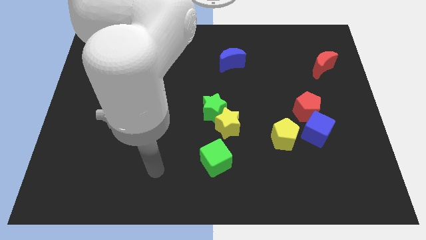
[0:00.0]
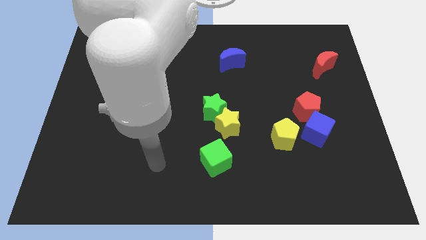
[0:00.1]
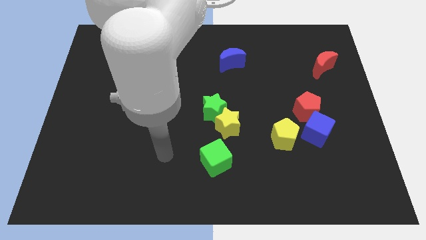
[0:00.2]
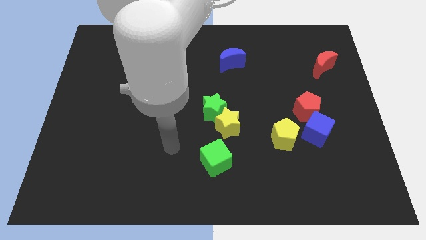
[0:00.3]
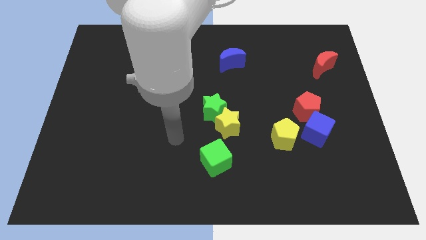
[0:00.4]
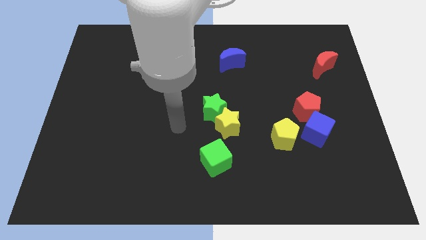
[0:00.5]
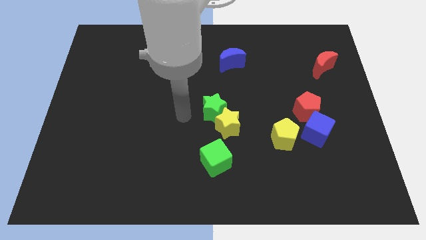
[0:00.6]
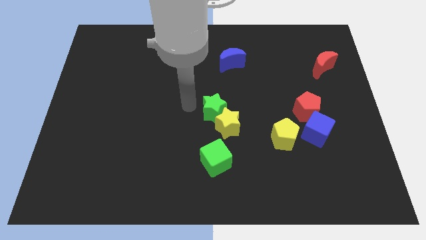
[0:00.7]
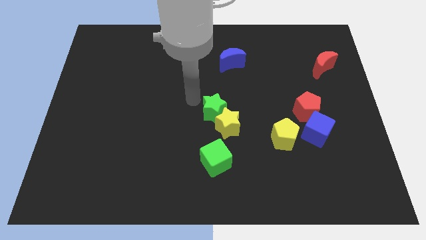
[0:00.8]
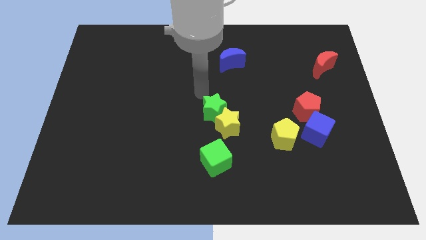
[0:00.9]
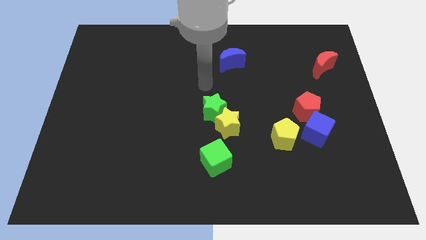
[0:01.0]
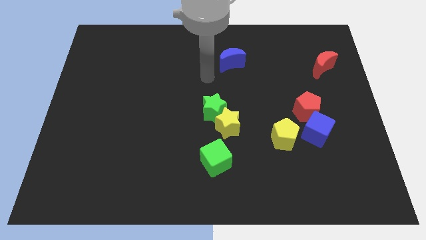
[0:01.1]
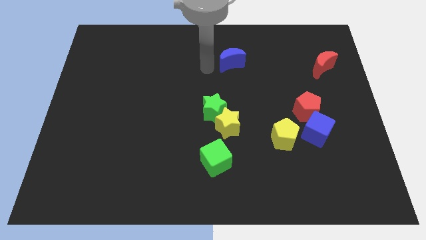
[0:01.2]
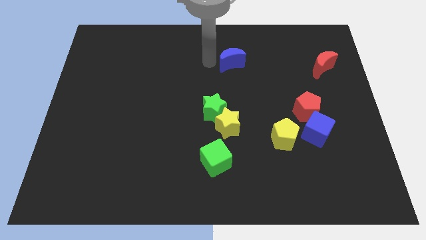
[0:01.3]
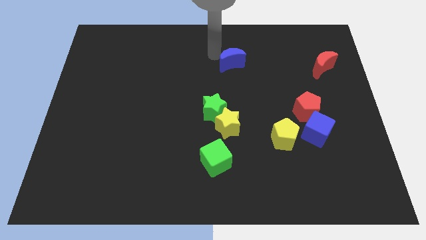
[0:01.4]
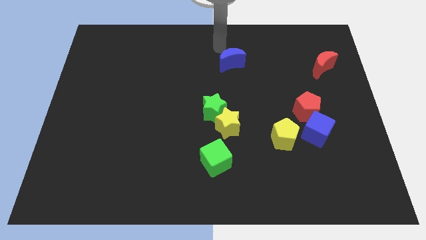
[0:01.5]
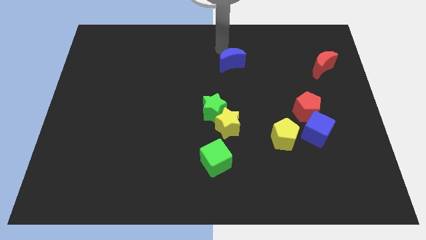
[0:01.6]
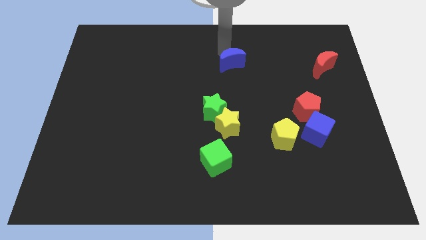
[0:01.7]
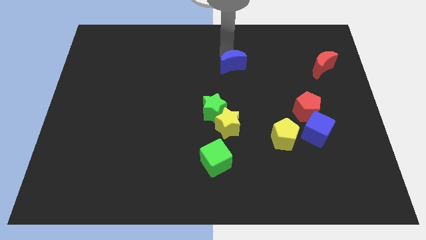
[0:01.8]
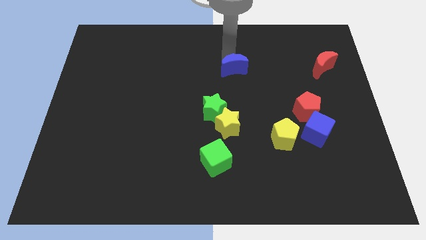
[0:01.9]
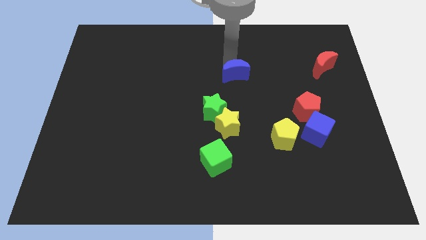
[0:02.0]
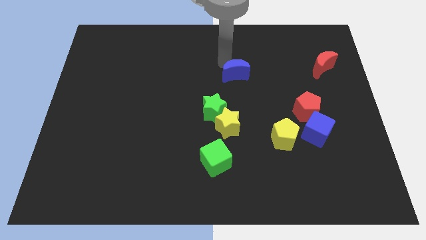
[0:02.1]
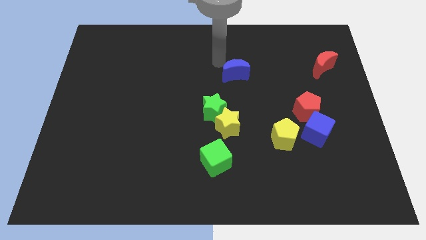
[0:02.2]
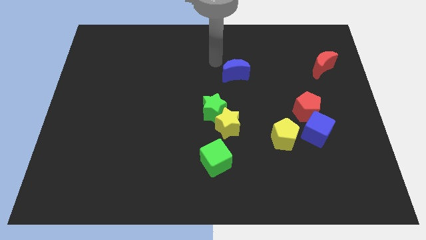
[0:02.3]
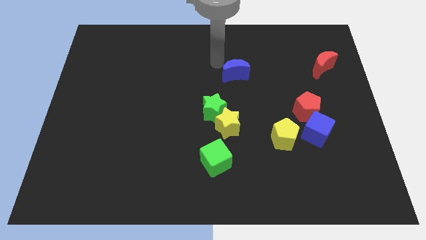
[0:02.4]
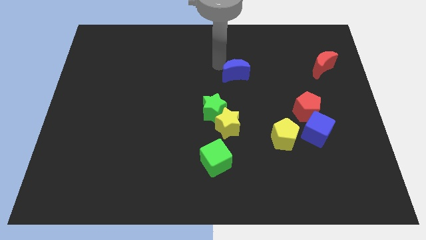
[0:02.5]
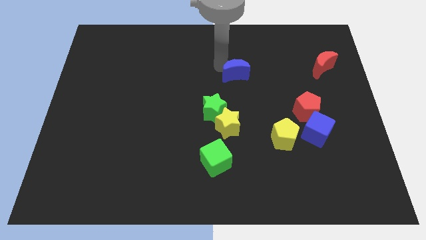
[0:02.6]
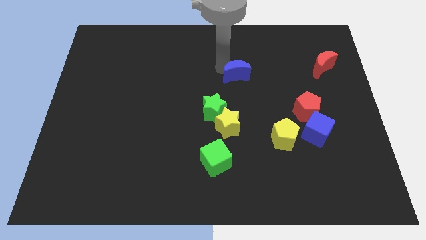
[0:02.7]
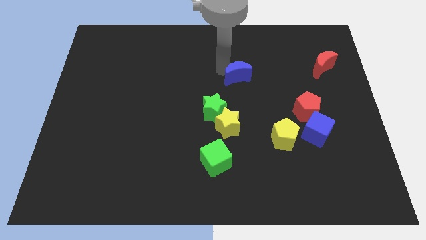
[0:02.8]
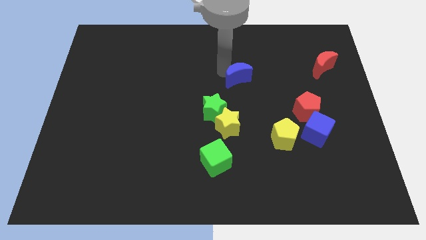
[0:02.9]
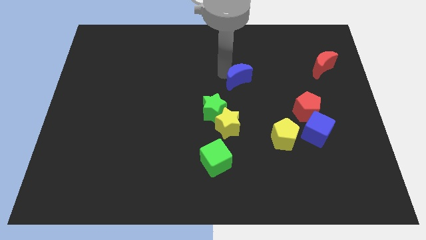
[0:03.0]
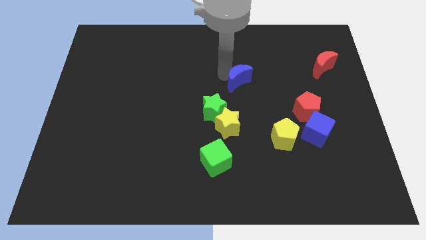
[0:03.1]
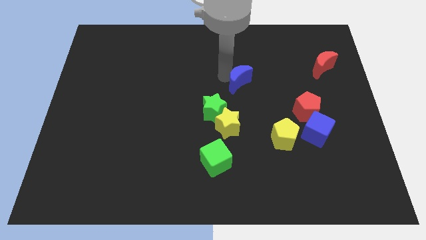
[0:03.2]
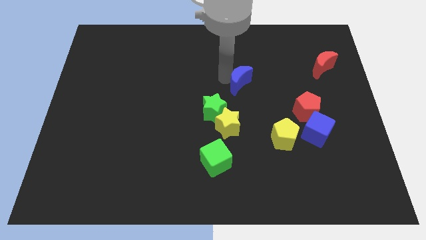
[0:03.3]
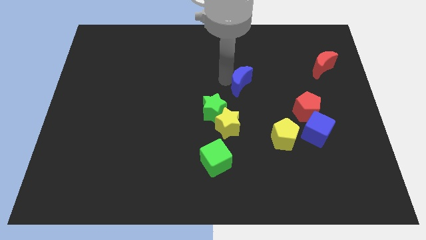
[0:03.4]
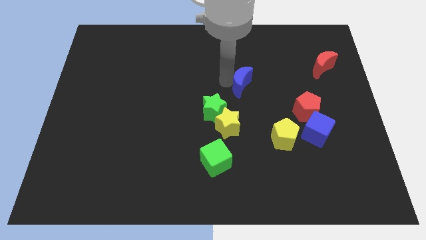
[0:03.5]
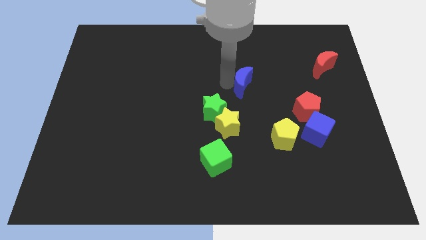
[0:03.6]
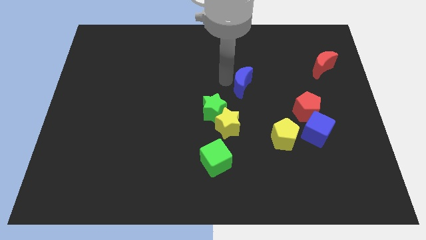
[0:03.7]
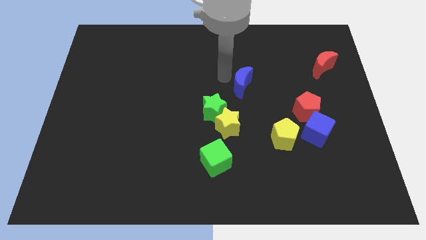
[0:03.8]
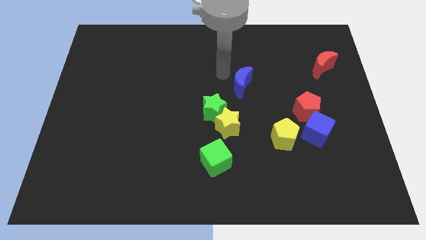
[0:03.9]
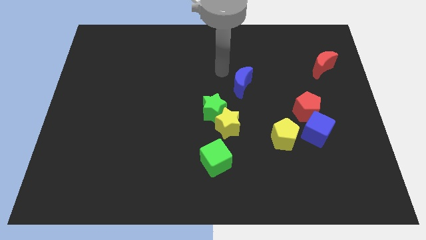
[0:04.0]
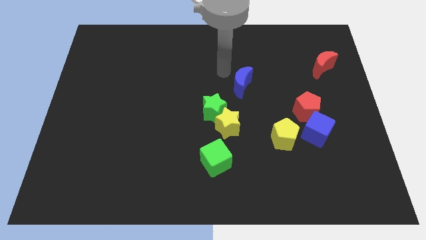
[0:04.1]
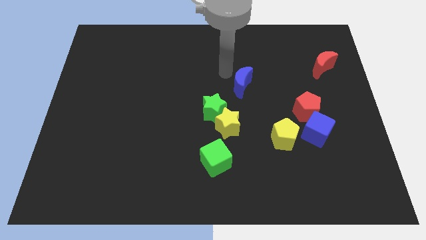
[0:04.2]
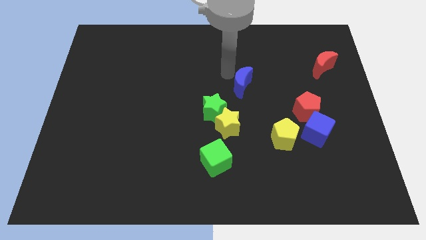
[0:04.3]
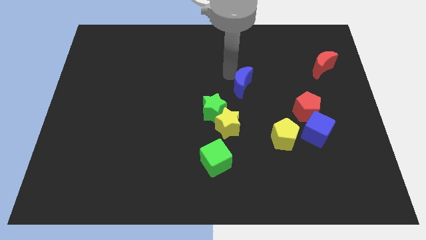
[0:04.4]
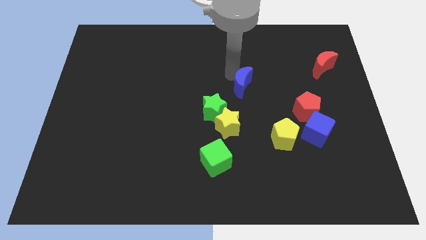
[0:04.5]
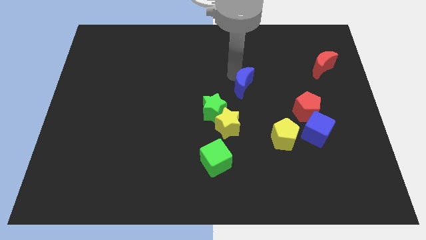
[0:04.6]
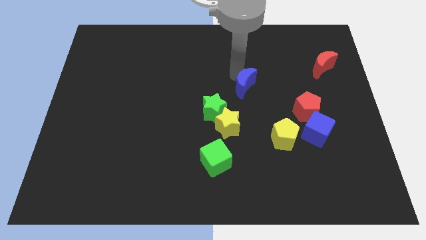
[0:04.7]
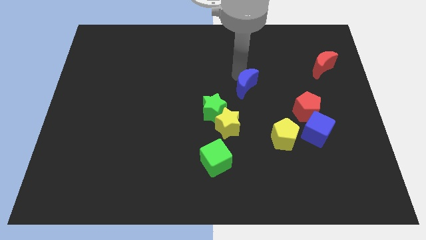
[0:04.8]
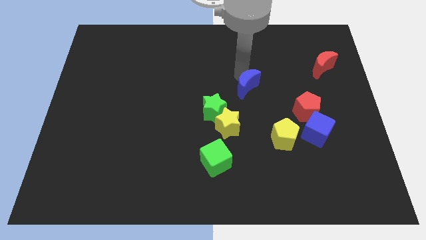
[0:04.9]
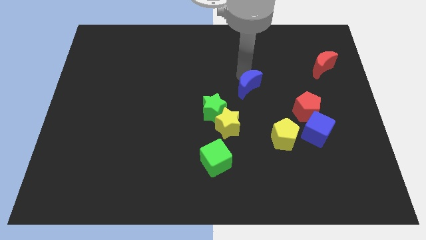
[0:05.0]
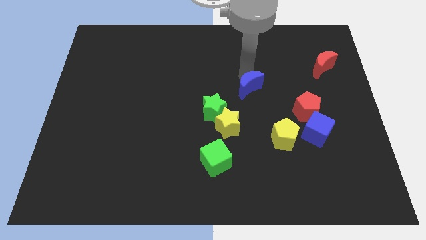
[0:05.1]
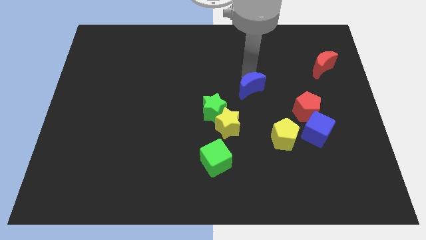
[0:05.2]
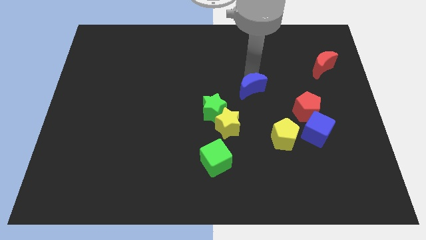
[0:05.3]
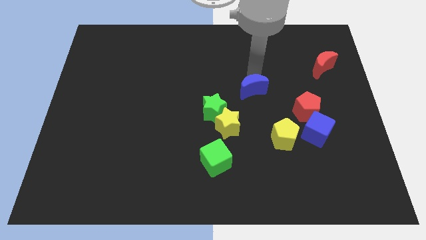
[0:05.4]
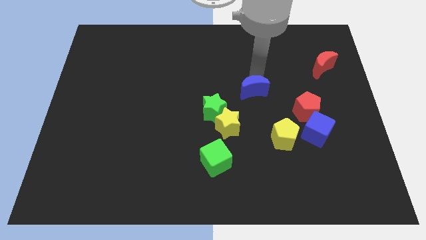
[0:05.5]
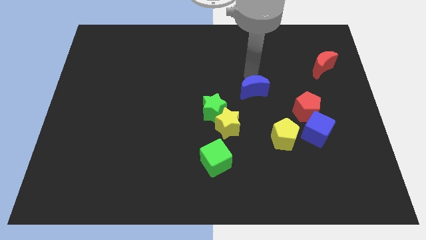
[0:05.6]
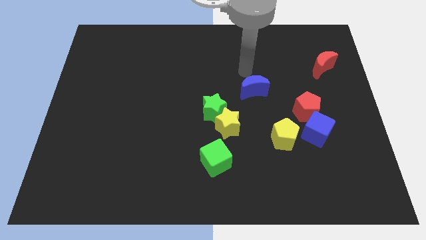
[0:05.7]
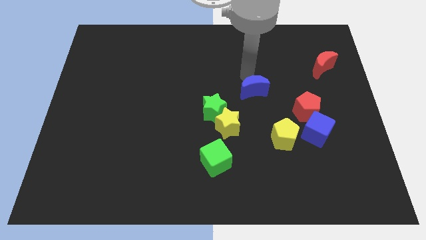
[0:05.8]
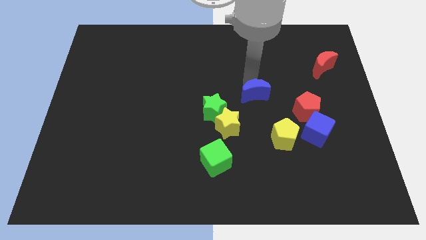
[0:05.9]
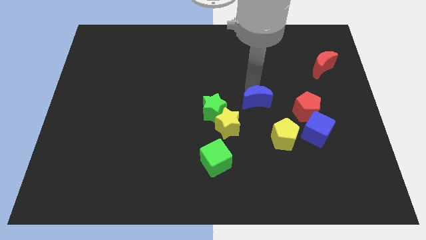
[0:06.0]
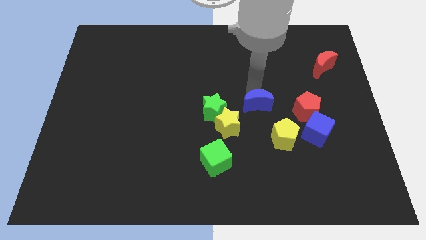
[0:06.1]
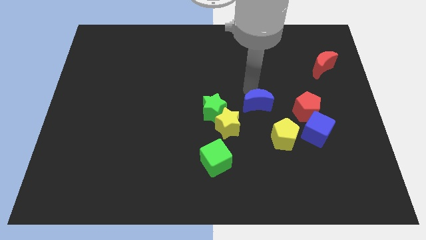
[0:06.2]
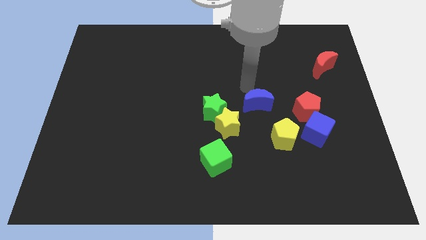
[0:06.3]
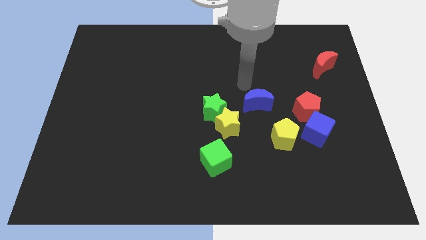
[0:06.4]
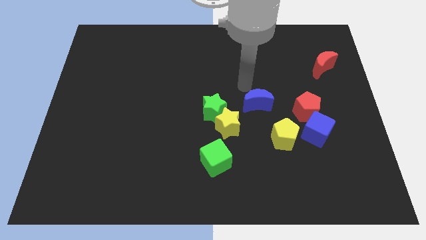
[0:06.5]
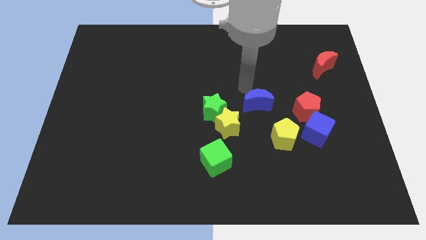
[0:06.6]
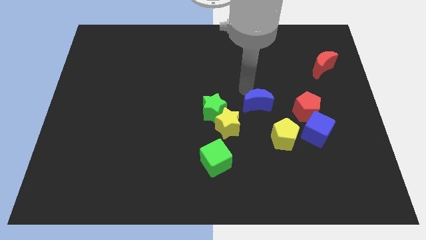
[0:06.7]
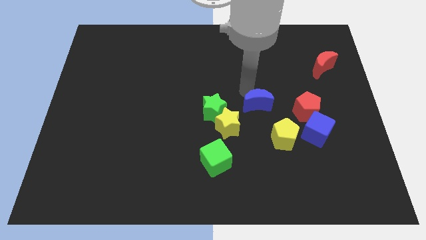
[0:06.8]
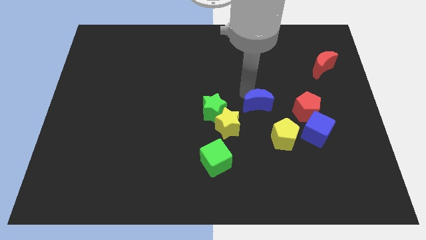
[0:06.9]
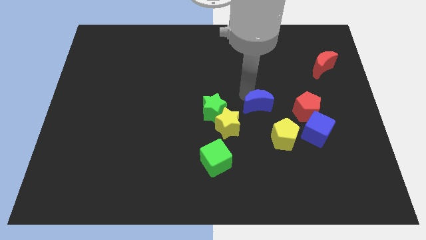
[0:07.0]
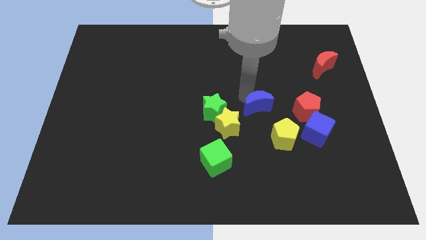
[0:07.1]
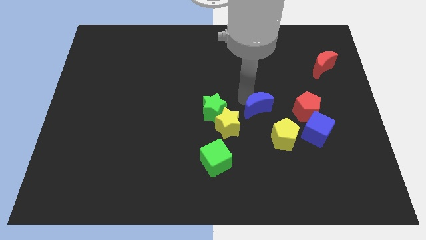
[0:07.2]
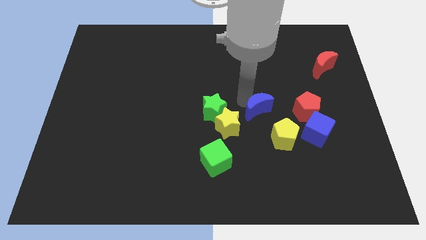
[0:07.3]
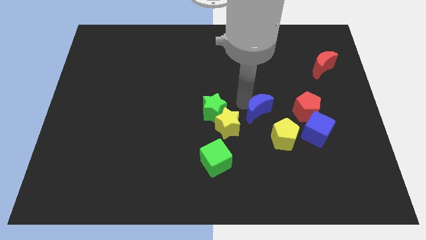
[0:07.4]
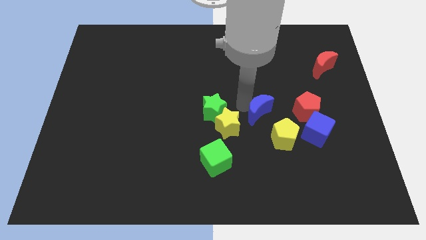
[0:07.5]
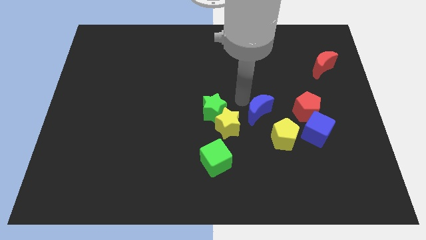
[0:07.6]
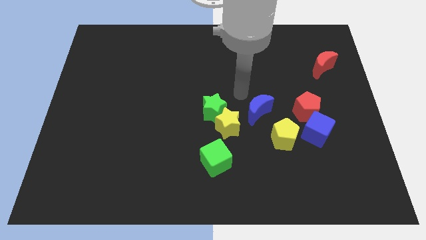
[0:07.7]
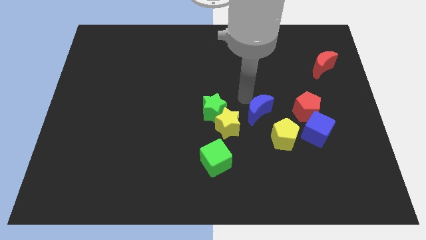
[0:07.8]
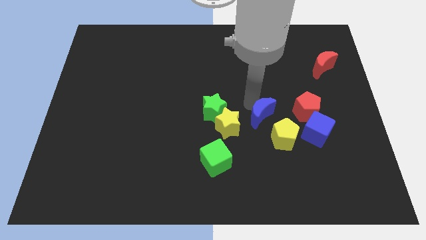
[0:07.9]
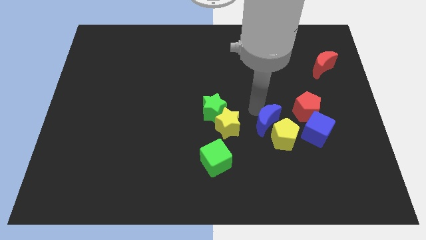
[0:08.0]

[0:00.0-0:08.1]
move the blue moon to the yellow pentagon
